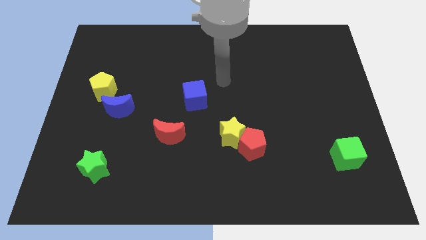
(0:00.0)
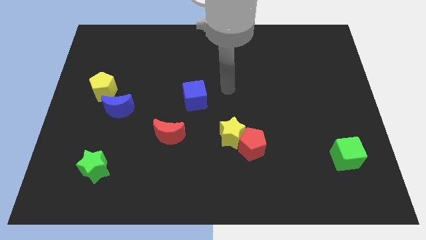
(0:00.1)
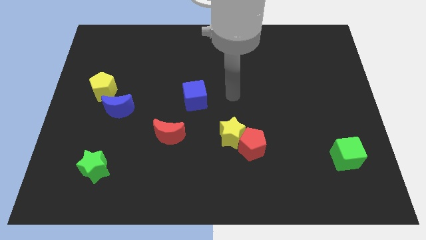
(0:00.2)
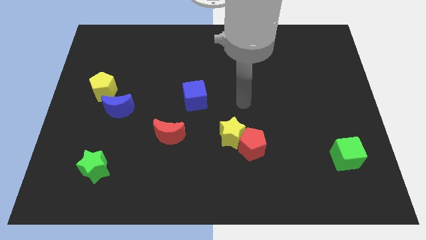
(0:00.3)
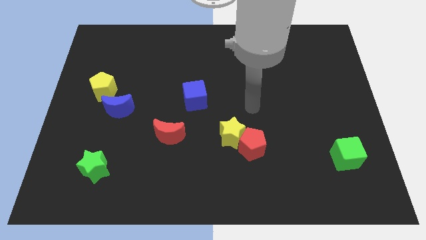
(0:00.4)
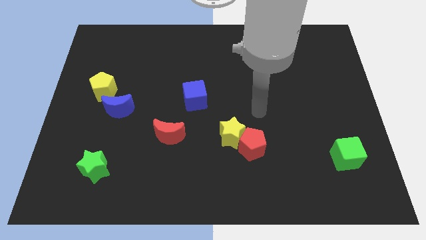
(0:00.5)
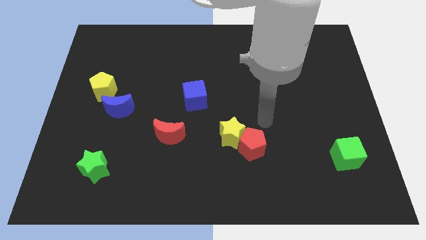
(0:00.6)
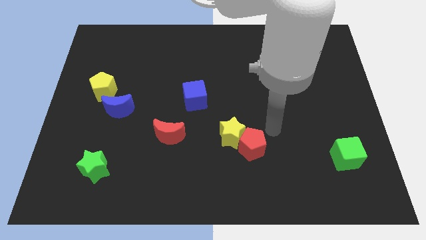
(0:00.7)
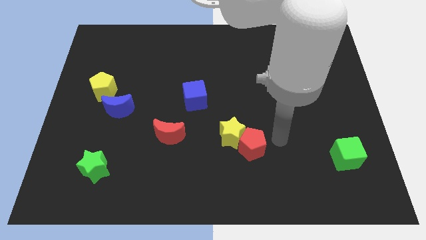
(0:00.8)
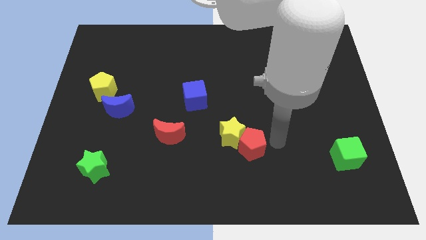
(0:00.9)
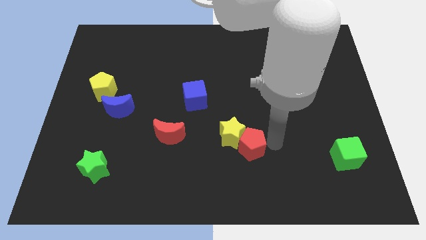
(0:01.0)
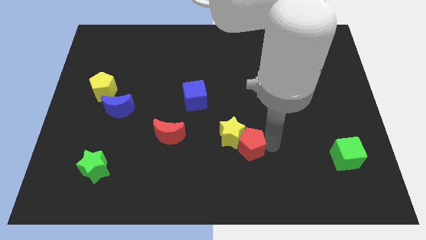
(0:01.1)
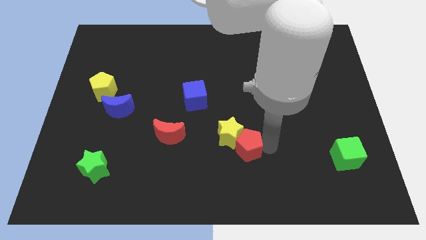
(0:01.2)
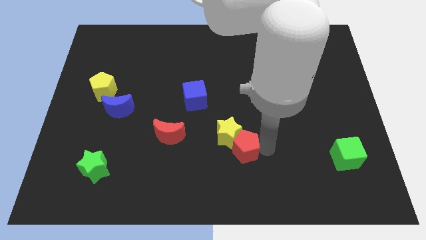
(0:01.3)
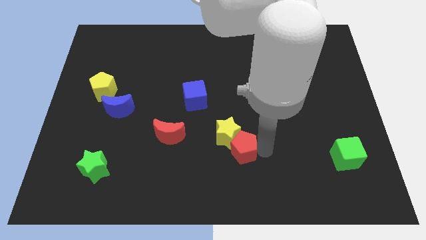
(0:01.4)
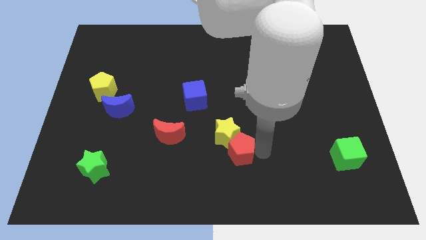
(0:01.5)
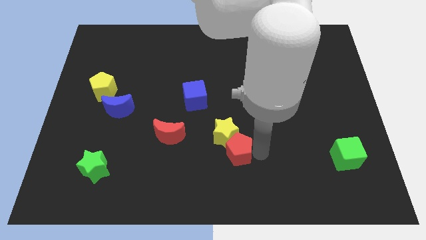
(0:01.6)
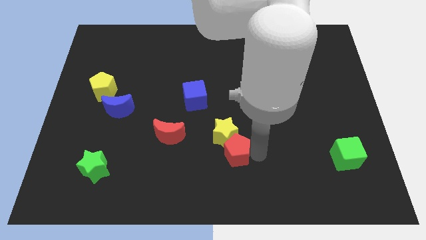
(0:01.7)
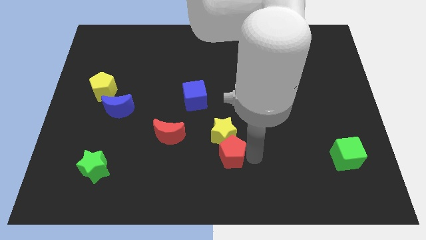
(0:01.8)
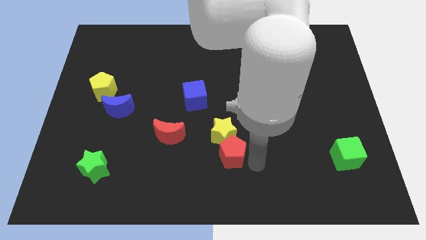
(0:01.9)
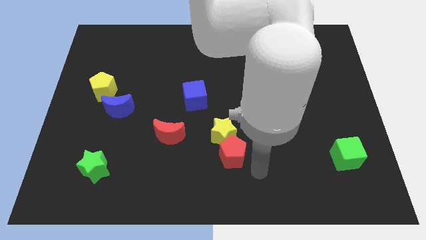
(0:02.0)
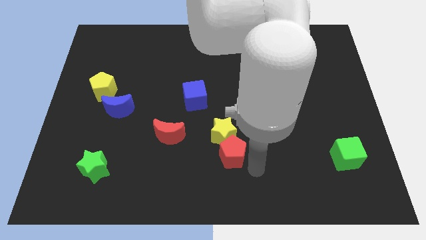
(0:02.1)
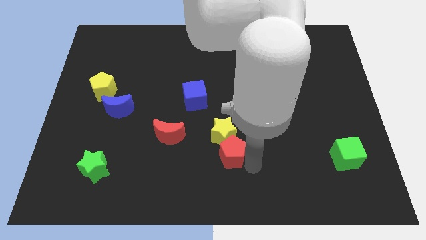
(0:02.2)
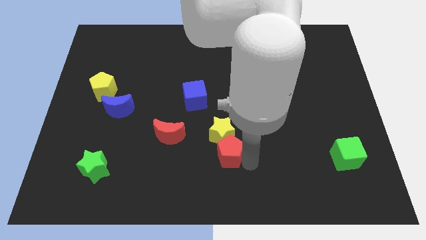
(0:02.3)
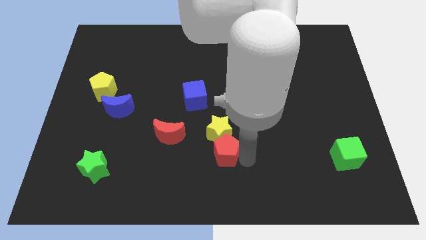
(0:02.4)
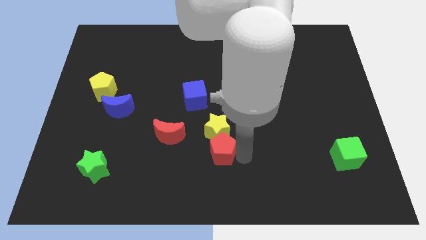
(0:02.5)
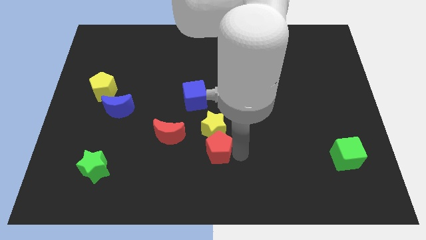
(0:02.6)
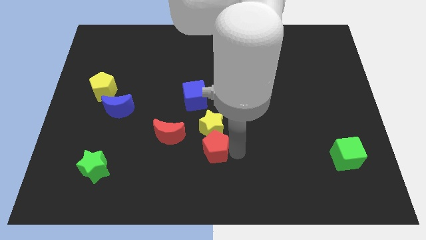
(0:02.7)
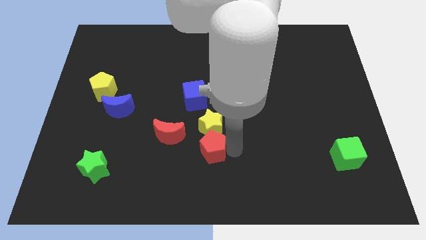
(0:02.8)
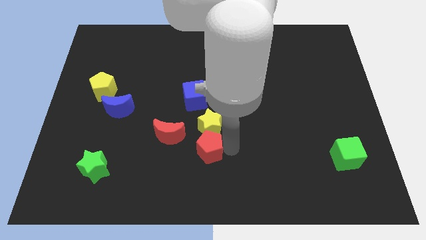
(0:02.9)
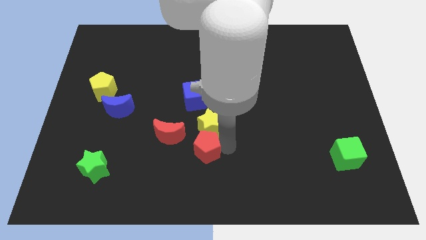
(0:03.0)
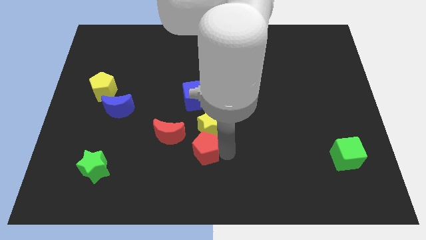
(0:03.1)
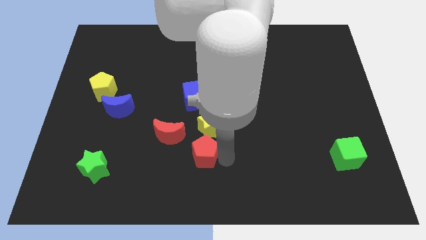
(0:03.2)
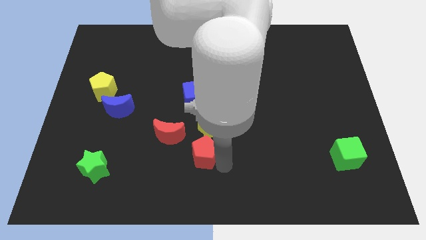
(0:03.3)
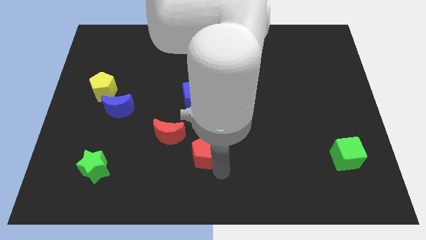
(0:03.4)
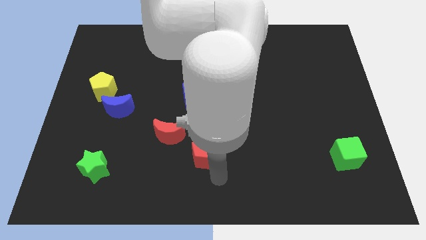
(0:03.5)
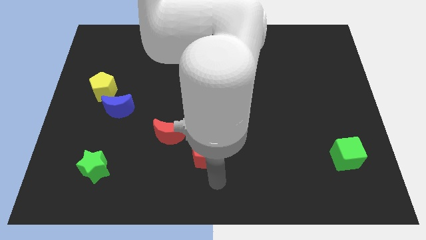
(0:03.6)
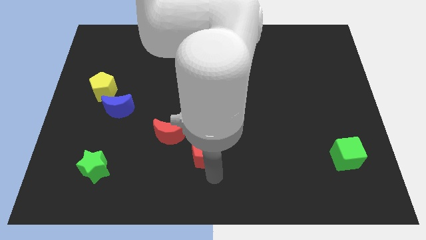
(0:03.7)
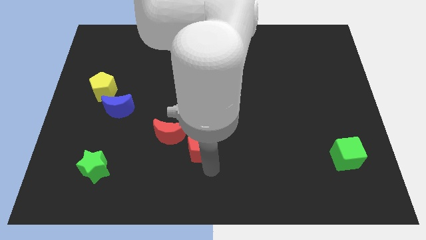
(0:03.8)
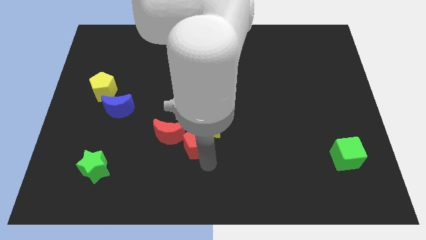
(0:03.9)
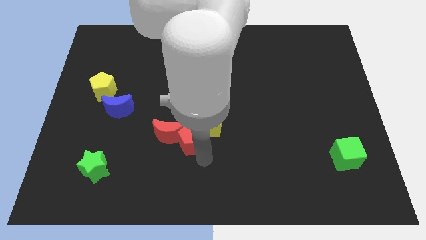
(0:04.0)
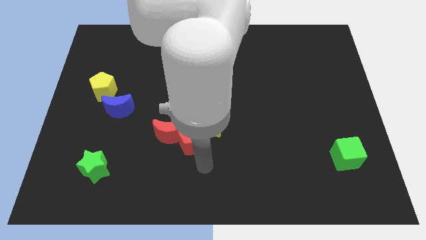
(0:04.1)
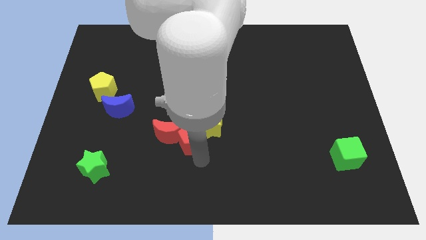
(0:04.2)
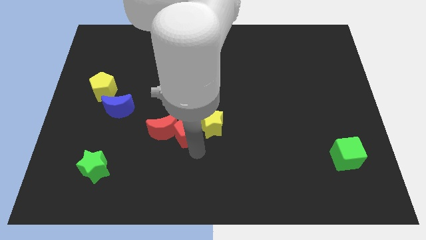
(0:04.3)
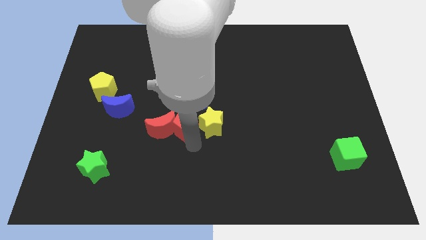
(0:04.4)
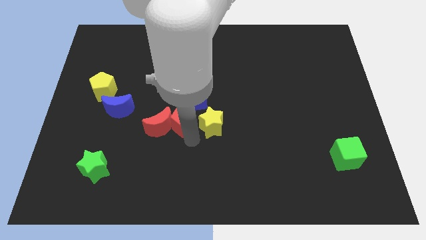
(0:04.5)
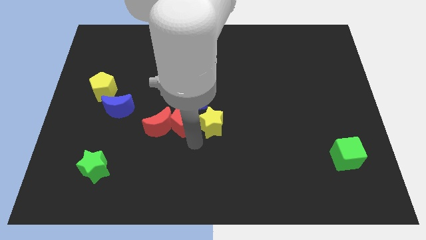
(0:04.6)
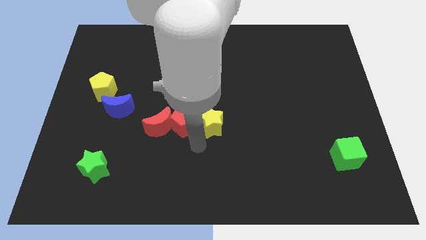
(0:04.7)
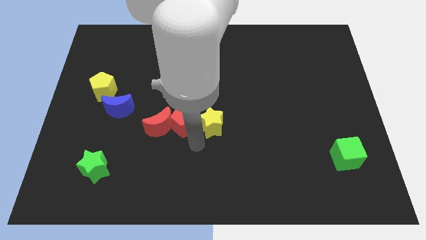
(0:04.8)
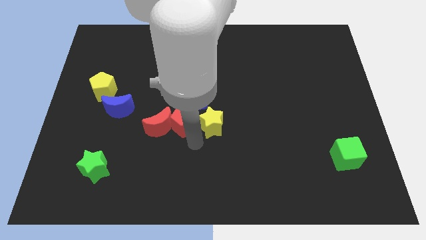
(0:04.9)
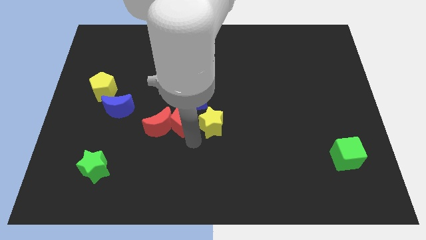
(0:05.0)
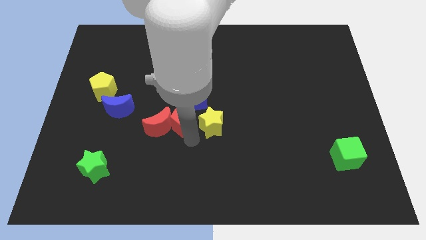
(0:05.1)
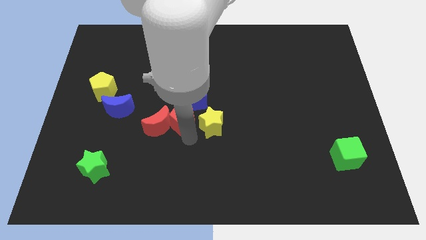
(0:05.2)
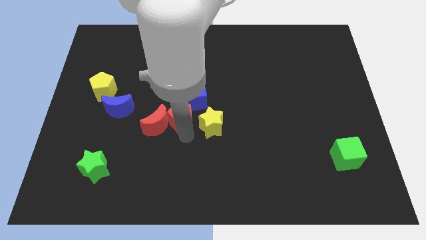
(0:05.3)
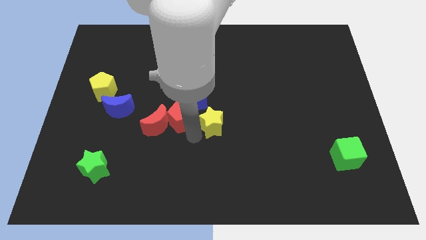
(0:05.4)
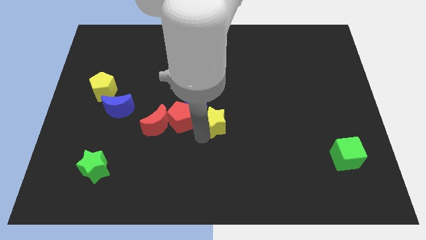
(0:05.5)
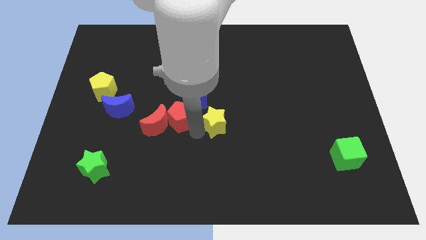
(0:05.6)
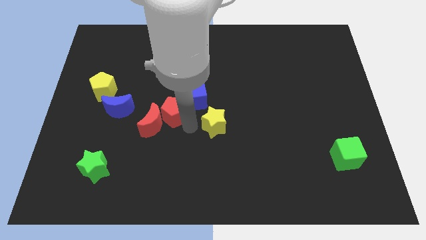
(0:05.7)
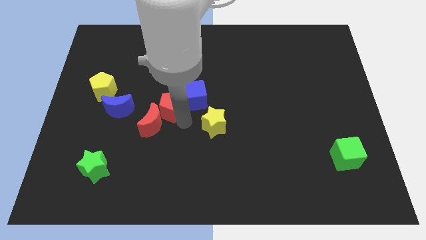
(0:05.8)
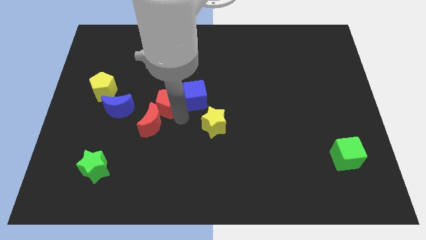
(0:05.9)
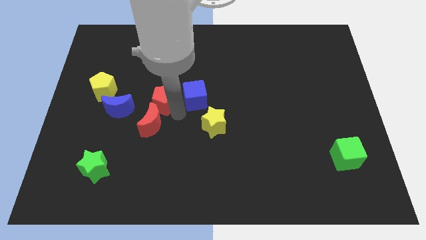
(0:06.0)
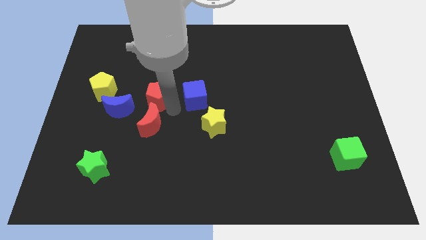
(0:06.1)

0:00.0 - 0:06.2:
put the red pentagon to the right side of the yellow pentagon

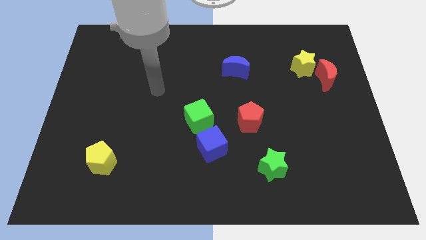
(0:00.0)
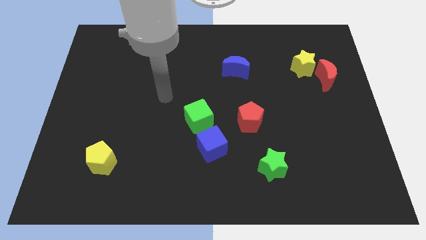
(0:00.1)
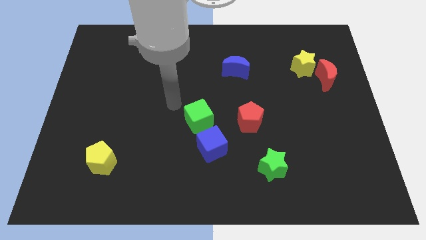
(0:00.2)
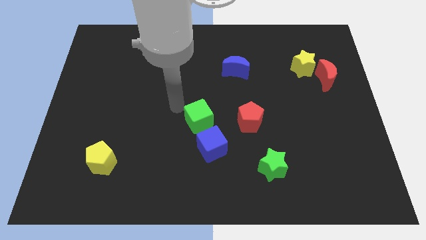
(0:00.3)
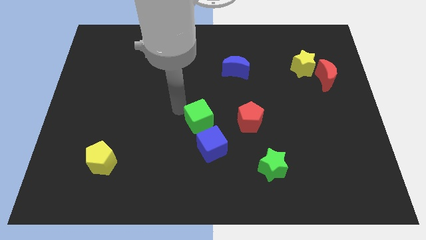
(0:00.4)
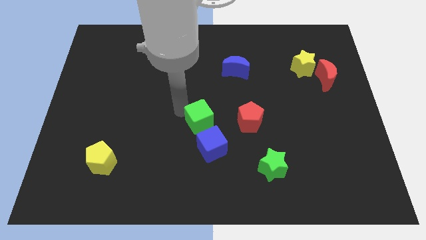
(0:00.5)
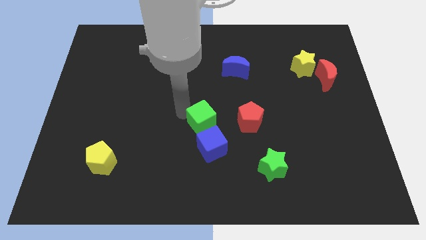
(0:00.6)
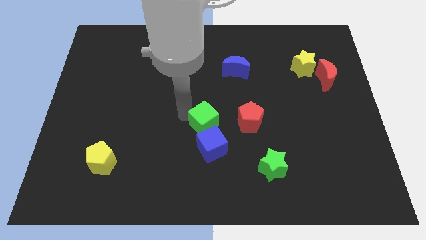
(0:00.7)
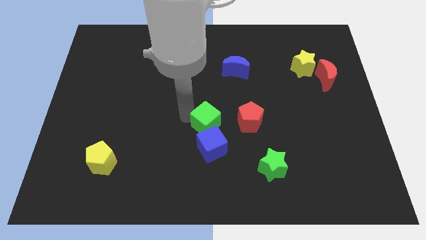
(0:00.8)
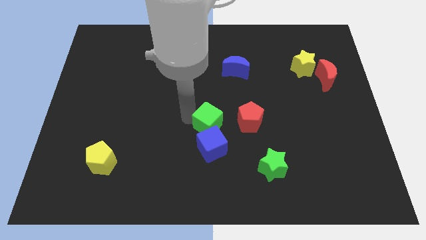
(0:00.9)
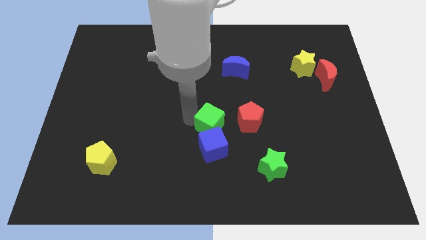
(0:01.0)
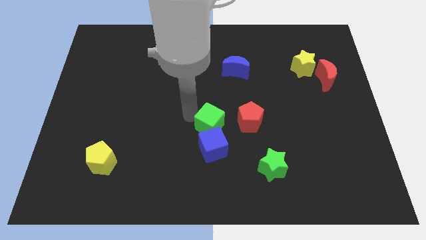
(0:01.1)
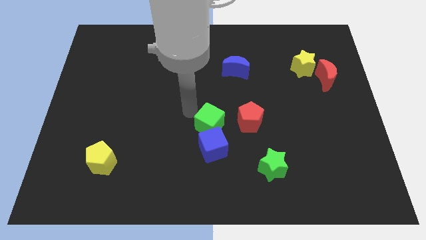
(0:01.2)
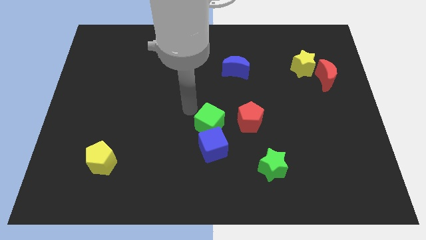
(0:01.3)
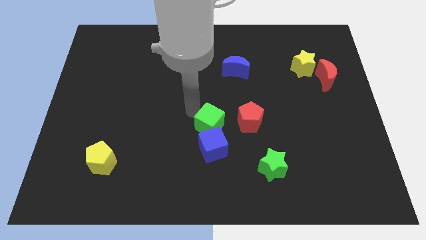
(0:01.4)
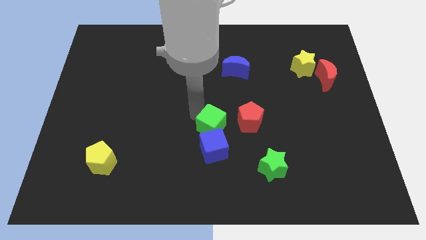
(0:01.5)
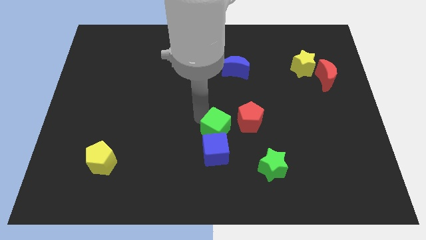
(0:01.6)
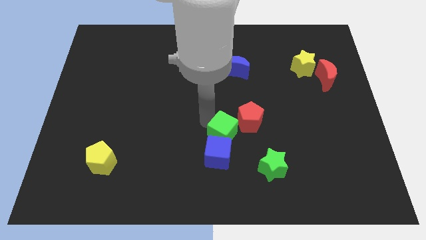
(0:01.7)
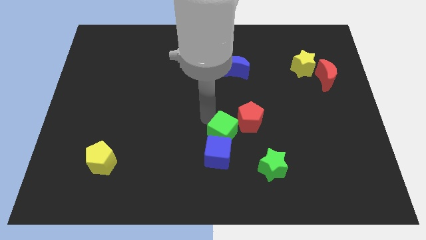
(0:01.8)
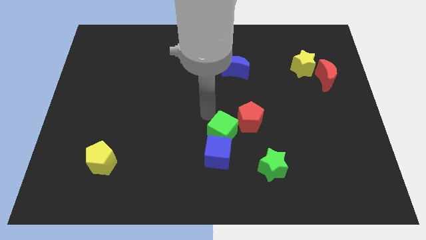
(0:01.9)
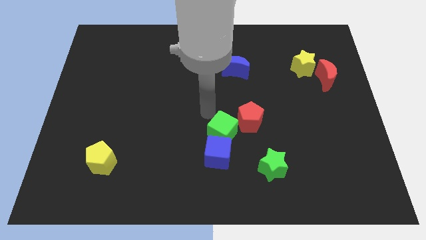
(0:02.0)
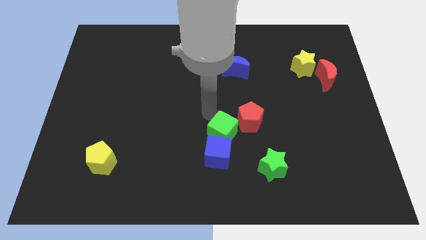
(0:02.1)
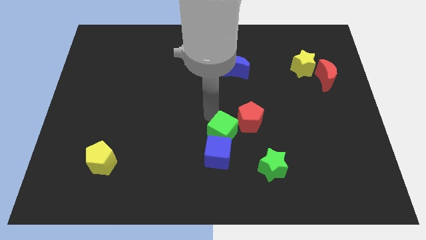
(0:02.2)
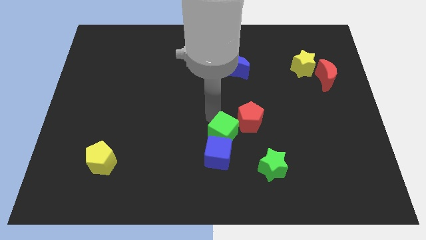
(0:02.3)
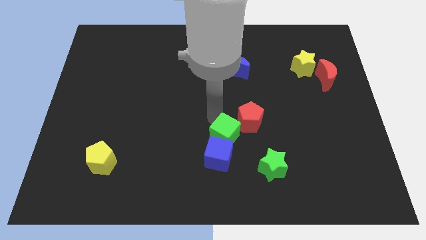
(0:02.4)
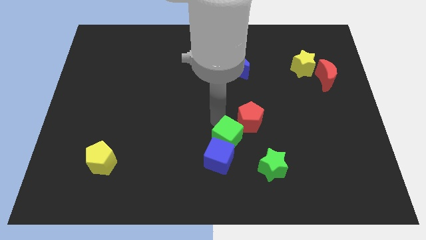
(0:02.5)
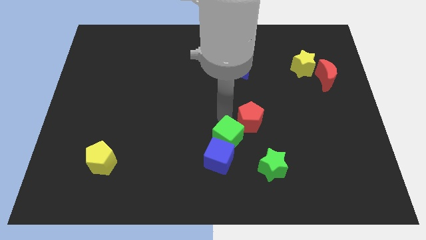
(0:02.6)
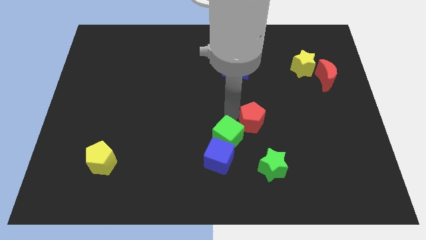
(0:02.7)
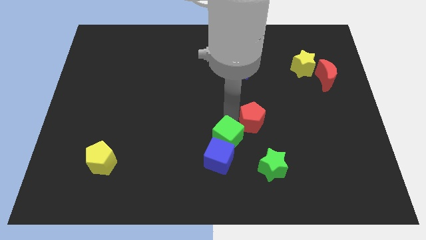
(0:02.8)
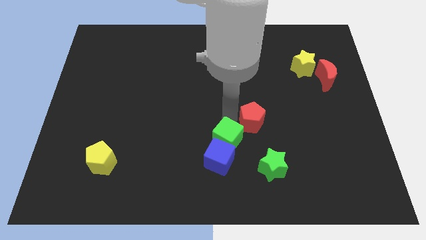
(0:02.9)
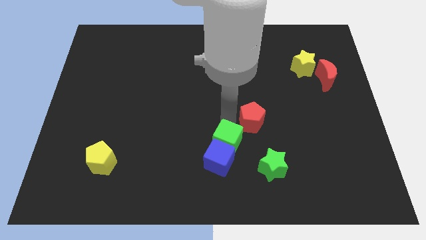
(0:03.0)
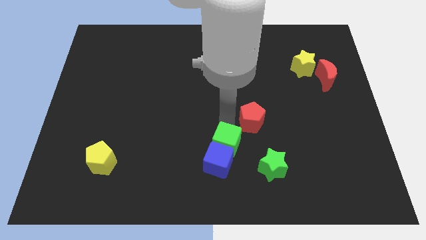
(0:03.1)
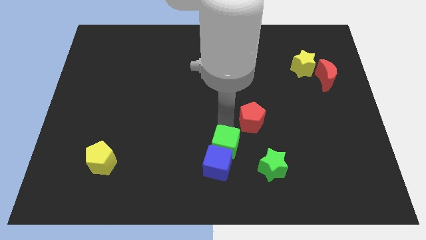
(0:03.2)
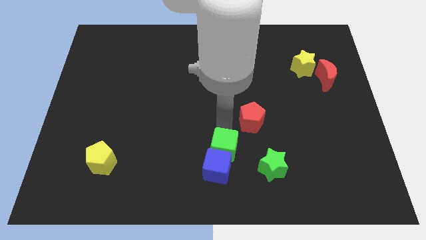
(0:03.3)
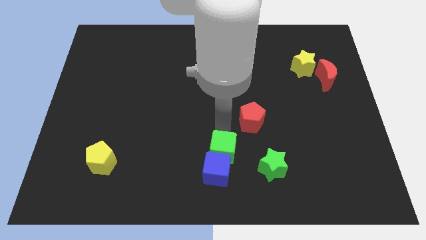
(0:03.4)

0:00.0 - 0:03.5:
move the green cube just left of the green star
